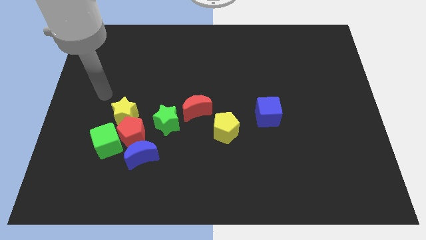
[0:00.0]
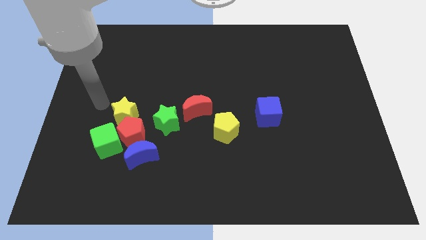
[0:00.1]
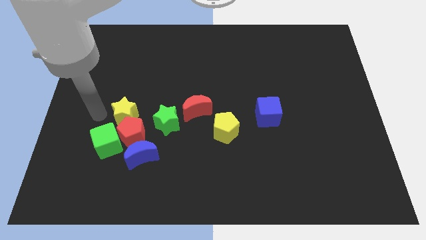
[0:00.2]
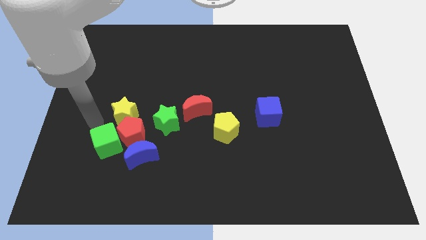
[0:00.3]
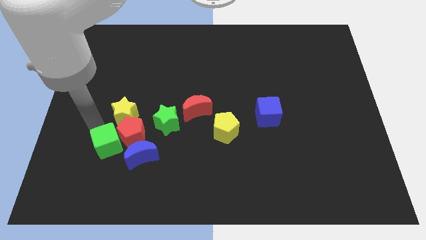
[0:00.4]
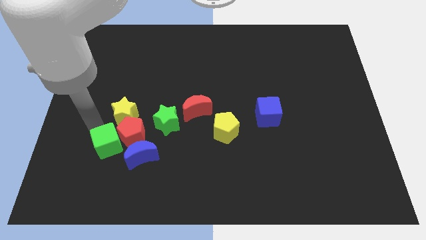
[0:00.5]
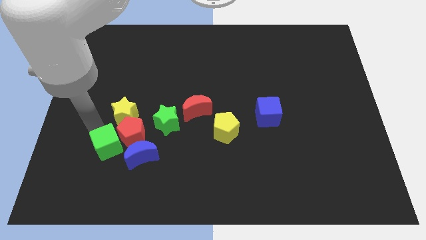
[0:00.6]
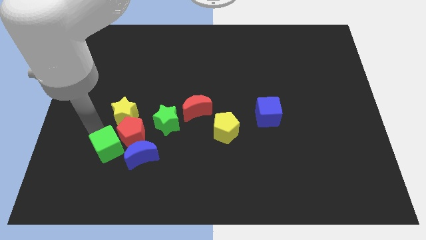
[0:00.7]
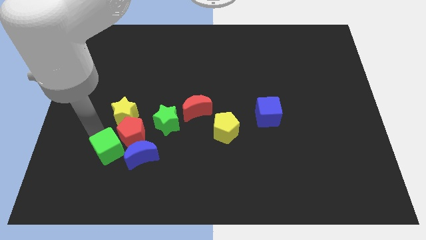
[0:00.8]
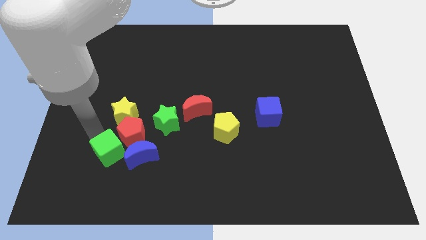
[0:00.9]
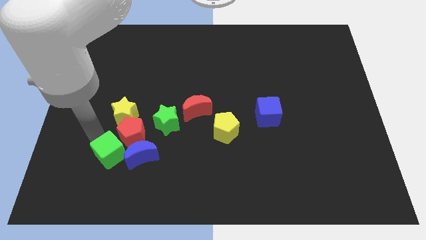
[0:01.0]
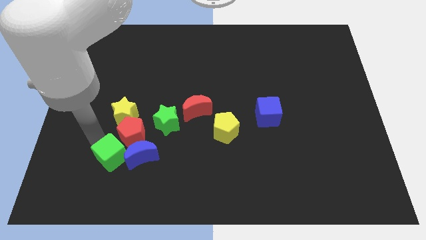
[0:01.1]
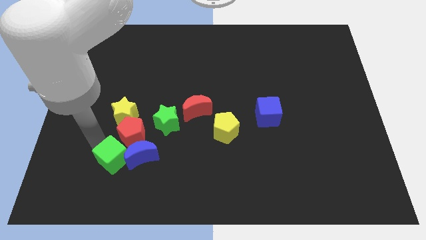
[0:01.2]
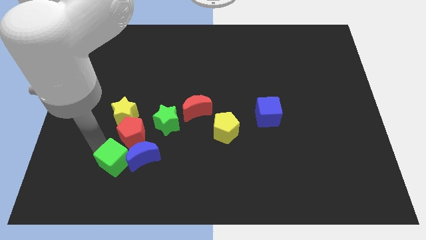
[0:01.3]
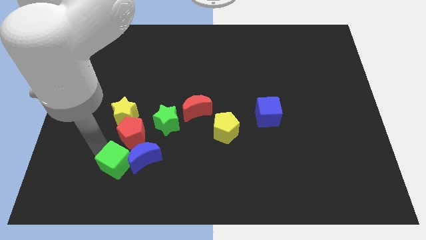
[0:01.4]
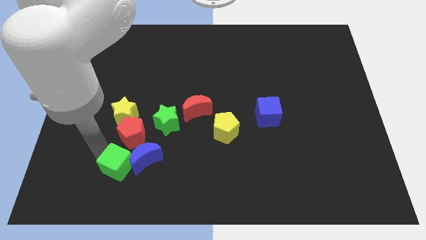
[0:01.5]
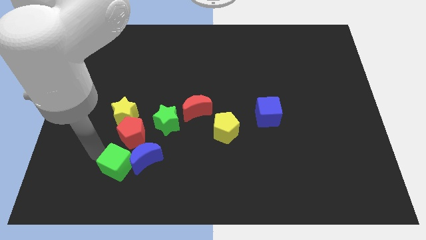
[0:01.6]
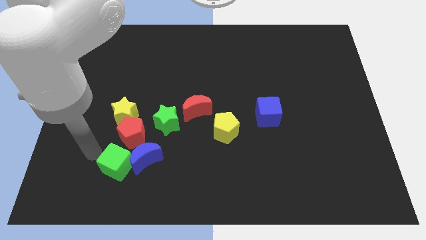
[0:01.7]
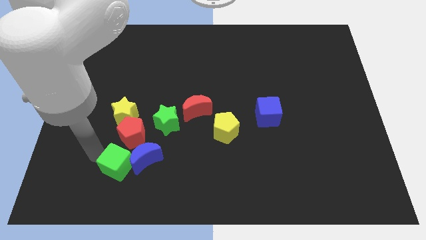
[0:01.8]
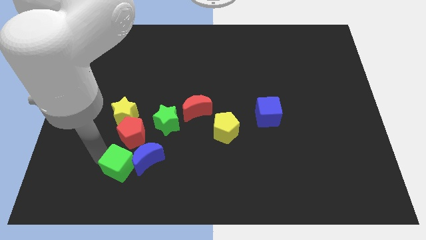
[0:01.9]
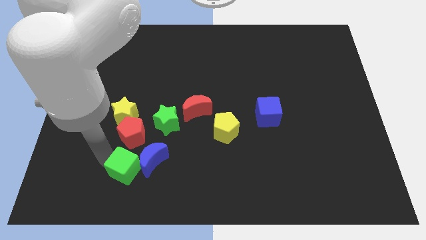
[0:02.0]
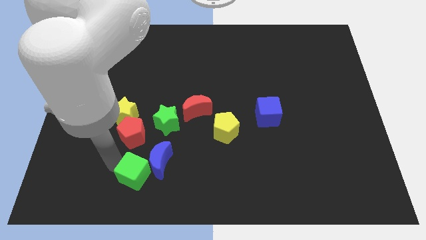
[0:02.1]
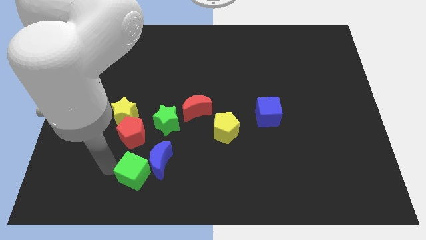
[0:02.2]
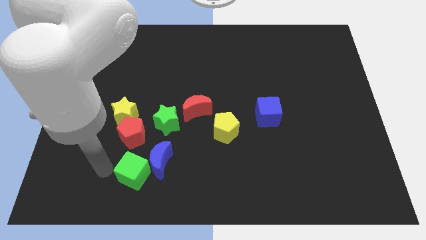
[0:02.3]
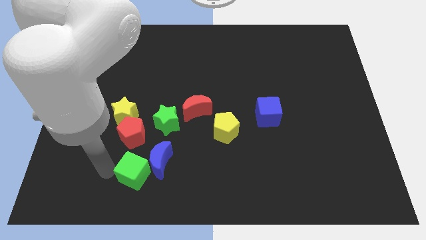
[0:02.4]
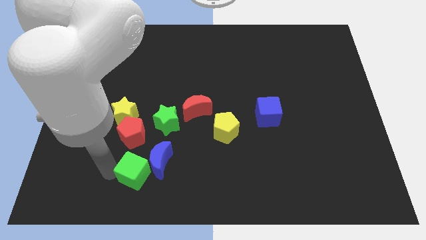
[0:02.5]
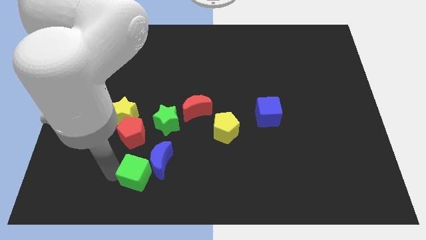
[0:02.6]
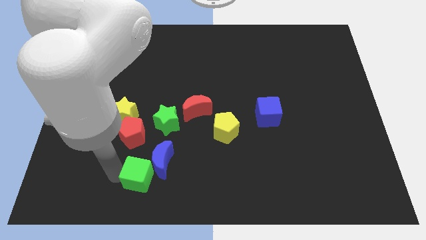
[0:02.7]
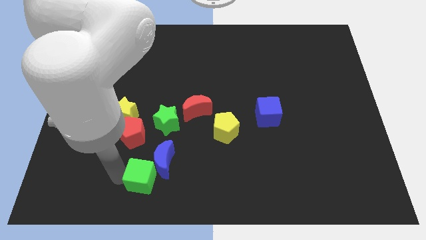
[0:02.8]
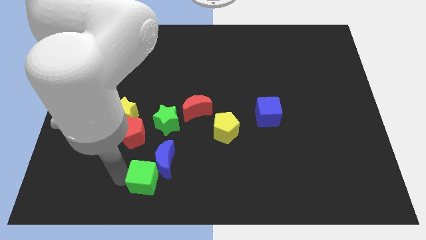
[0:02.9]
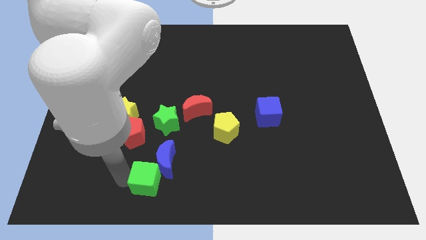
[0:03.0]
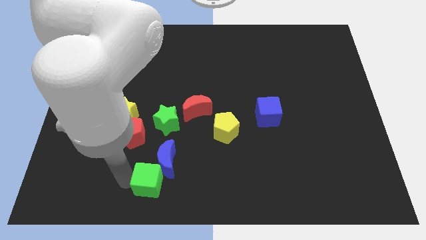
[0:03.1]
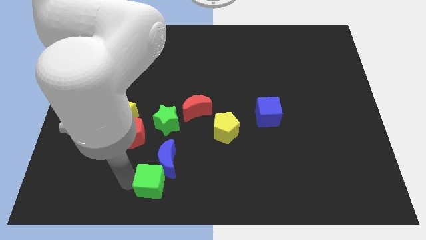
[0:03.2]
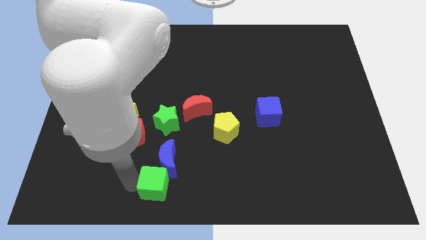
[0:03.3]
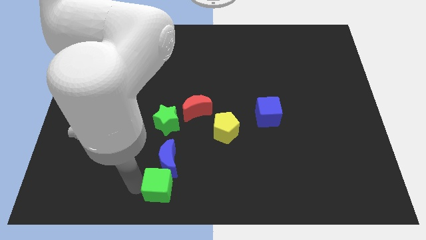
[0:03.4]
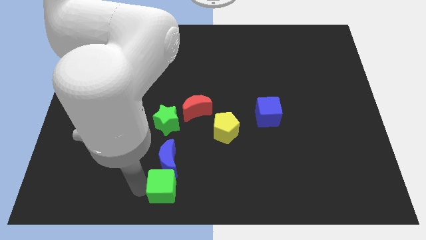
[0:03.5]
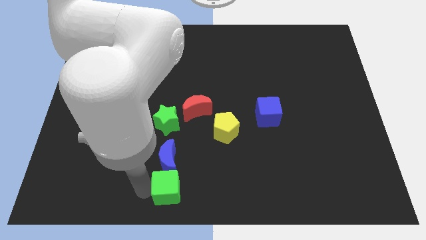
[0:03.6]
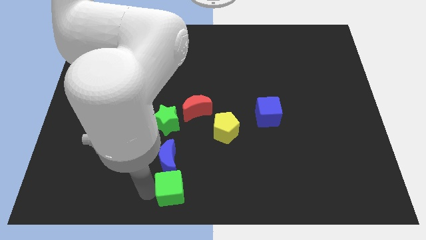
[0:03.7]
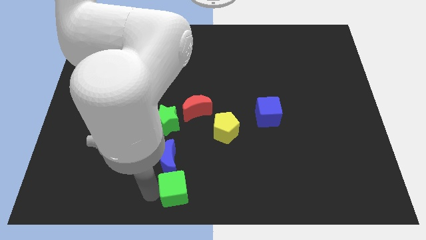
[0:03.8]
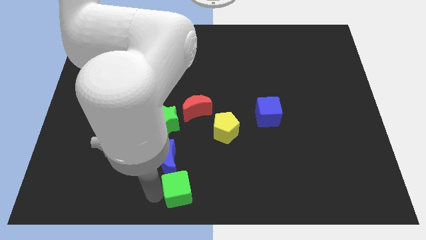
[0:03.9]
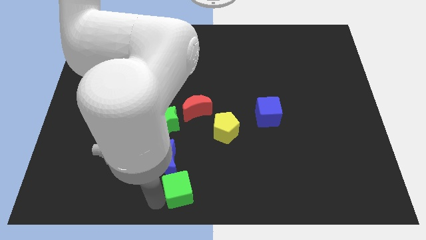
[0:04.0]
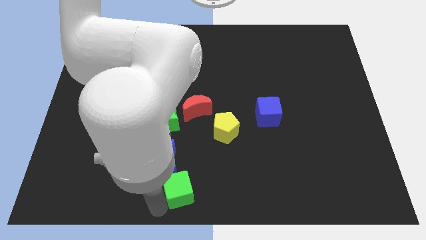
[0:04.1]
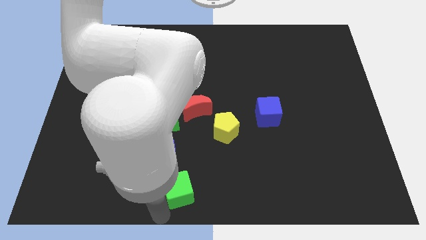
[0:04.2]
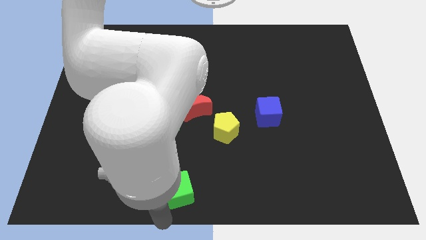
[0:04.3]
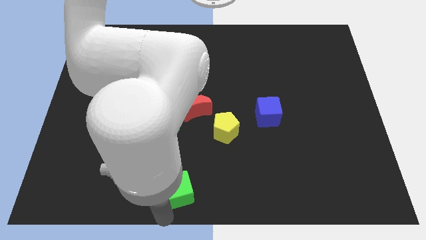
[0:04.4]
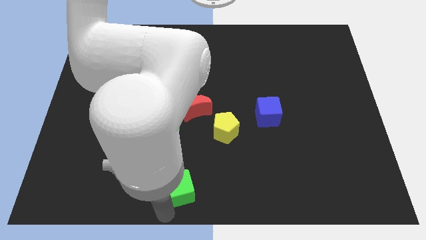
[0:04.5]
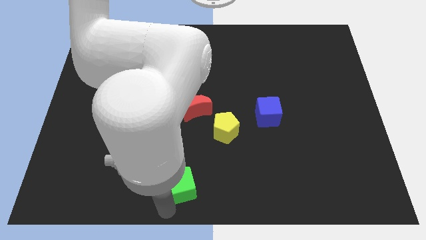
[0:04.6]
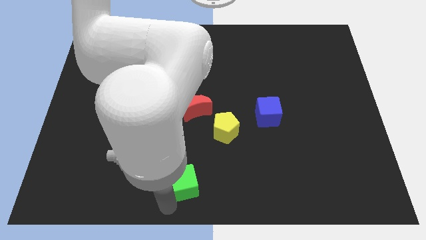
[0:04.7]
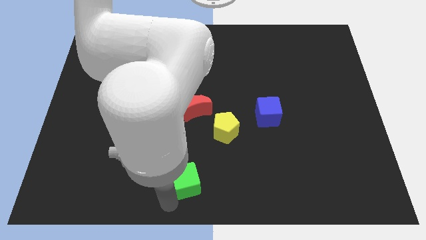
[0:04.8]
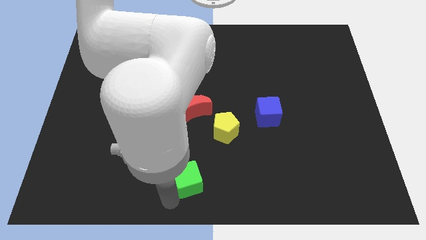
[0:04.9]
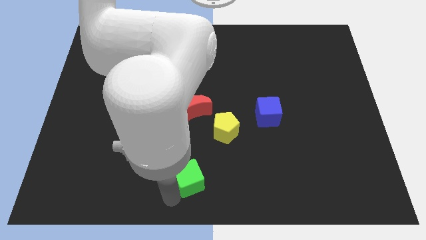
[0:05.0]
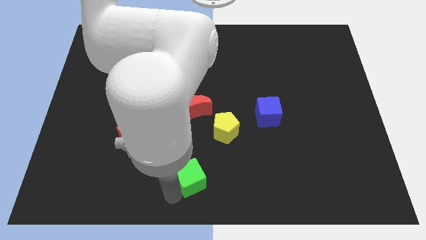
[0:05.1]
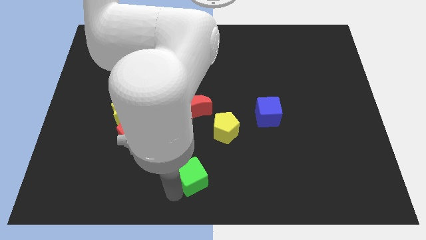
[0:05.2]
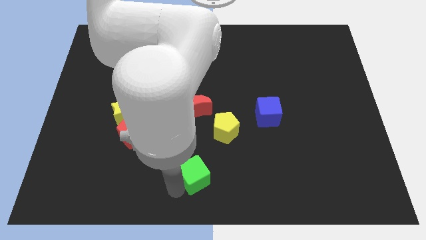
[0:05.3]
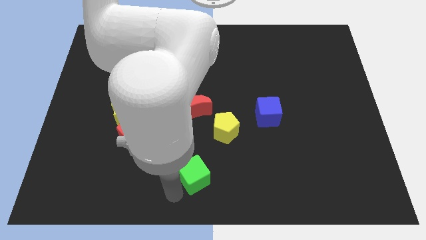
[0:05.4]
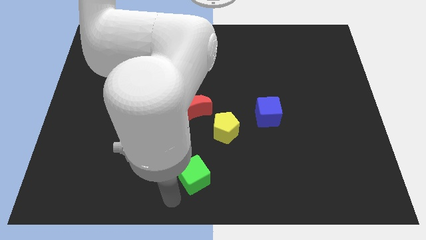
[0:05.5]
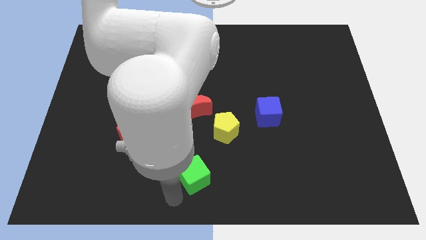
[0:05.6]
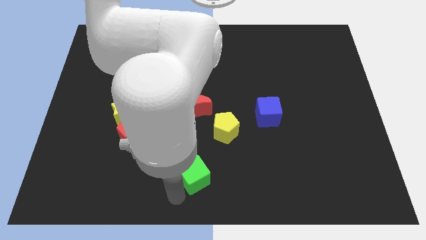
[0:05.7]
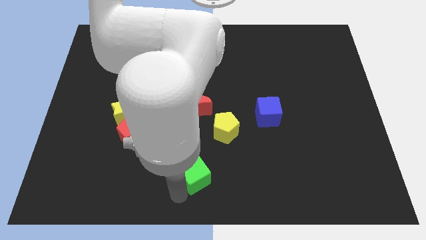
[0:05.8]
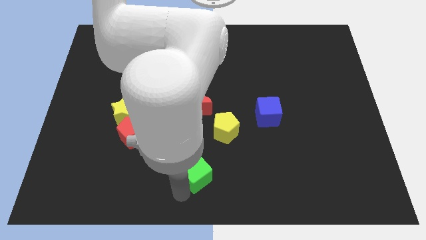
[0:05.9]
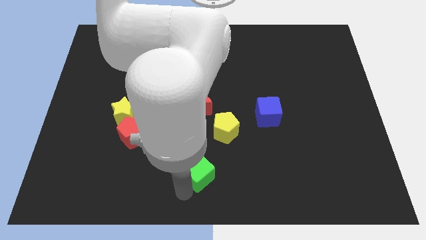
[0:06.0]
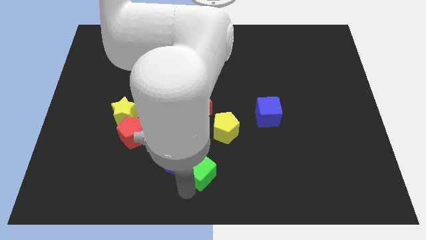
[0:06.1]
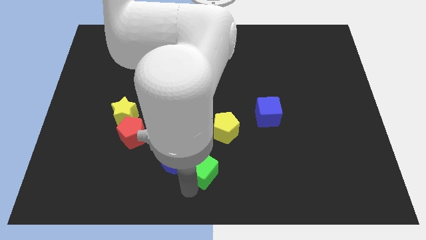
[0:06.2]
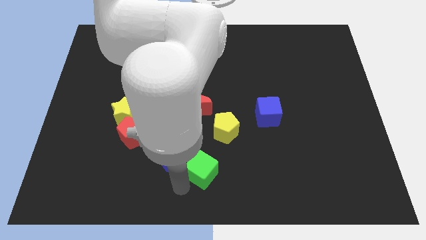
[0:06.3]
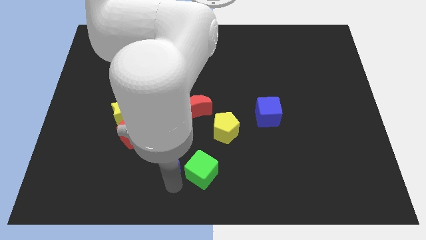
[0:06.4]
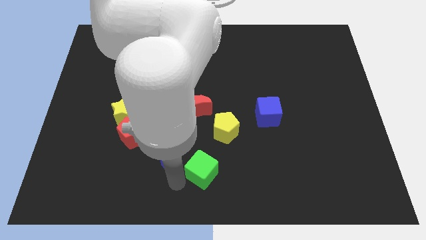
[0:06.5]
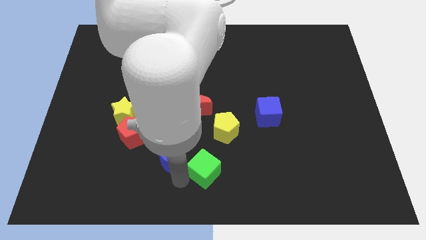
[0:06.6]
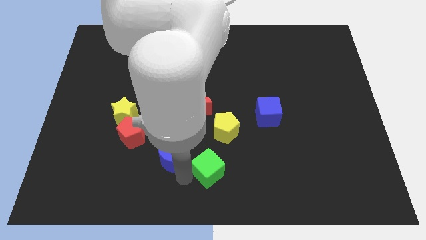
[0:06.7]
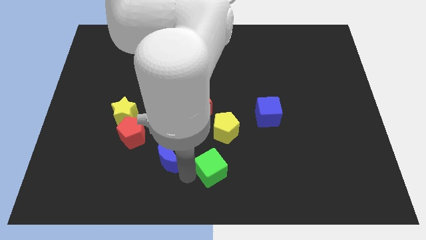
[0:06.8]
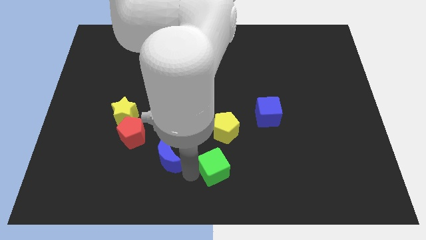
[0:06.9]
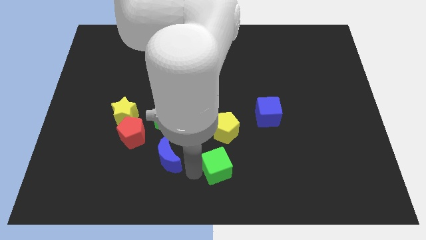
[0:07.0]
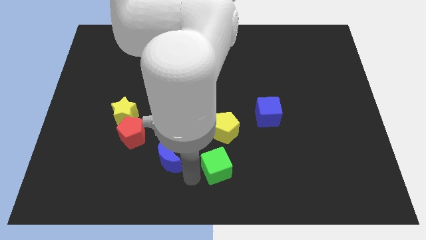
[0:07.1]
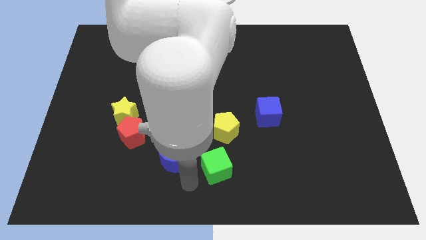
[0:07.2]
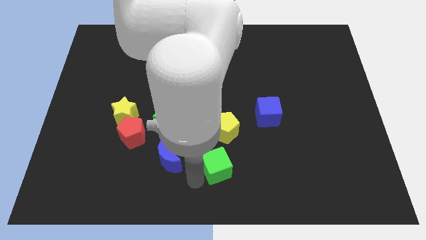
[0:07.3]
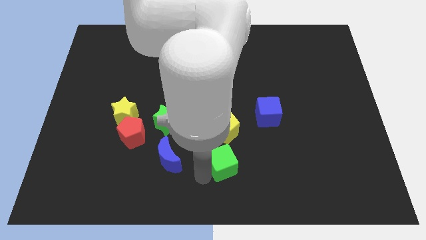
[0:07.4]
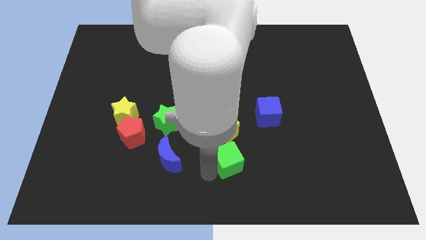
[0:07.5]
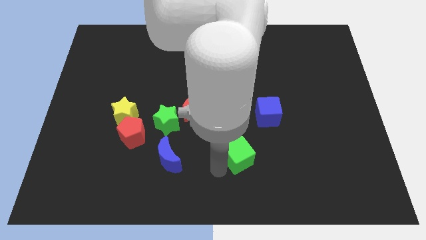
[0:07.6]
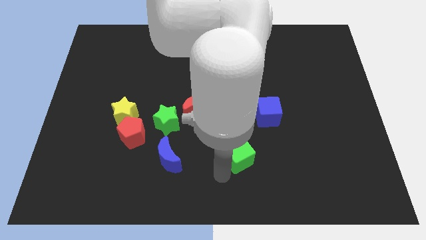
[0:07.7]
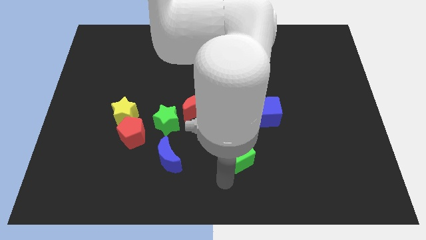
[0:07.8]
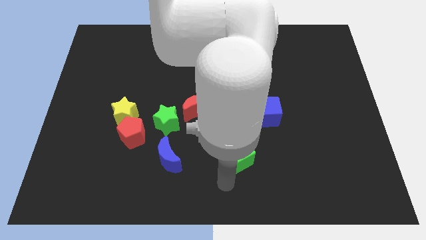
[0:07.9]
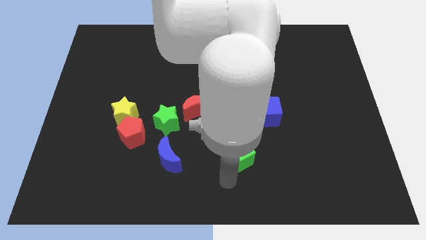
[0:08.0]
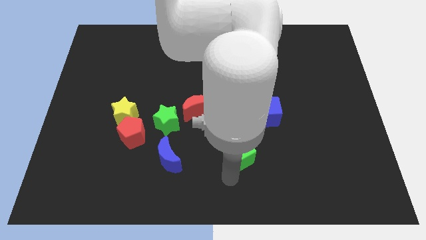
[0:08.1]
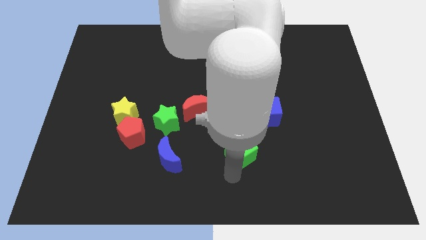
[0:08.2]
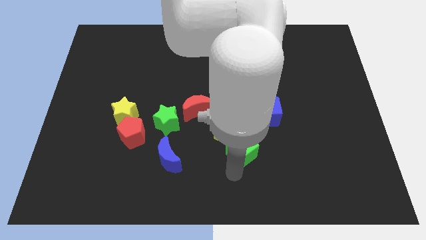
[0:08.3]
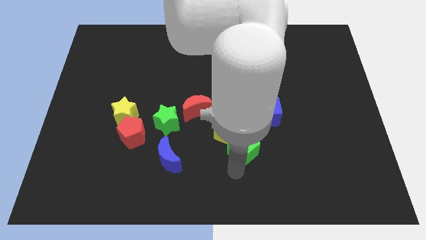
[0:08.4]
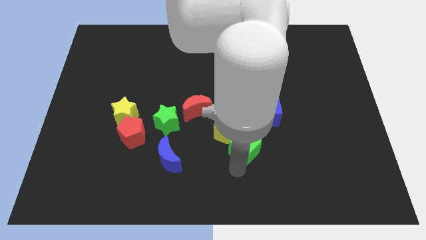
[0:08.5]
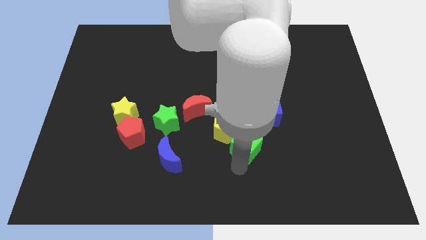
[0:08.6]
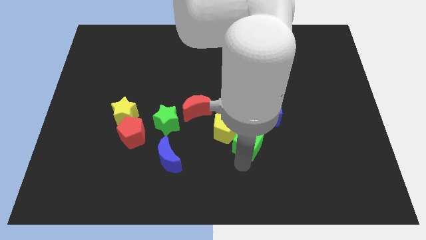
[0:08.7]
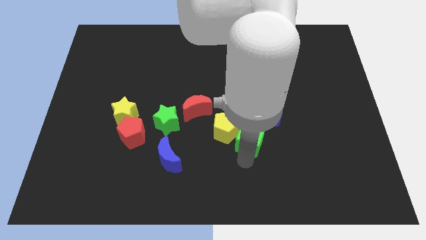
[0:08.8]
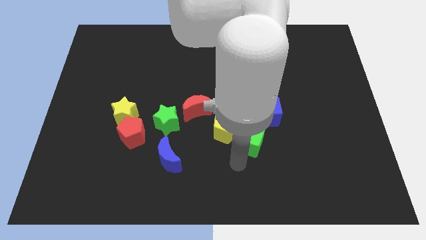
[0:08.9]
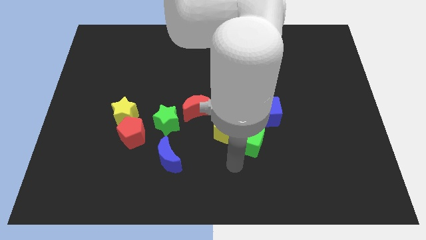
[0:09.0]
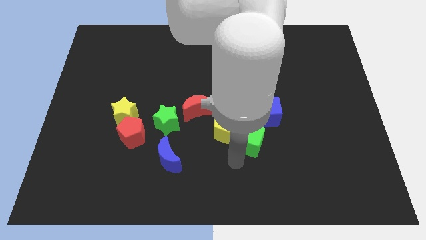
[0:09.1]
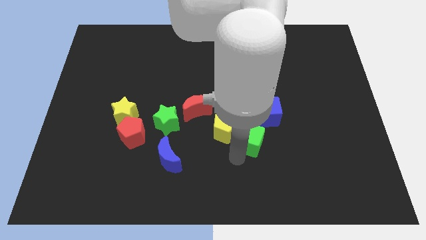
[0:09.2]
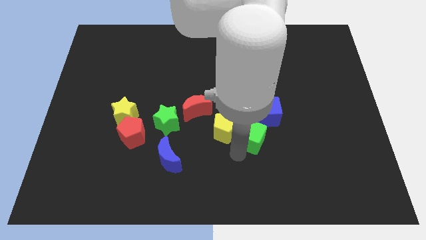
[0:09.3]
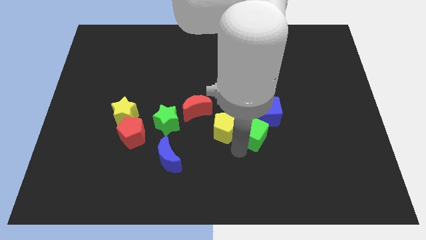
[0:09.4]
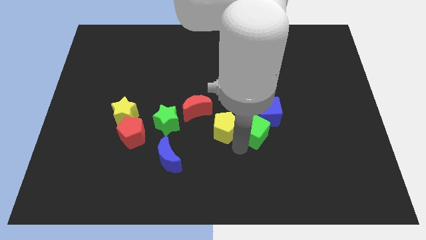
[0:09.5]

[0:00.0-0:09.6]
move the green cube towards the blue cube
